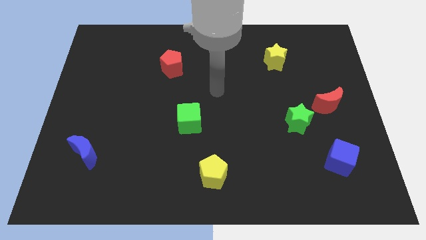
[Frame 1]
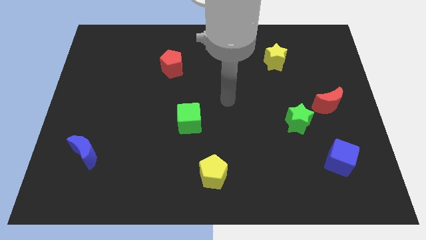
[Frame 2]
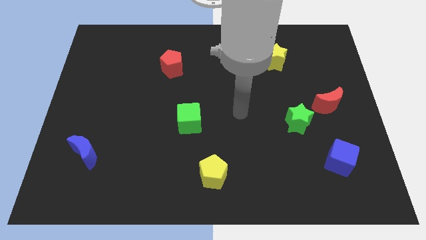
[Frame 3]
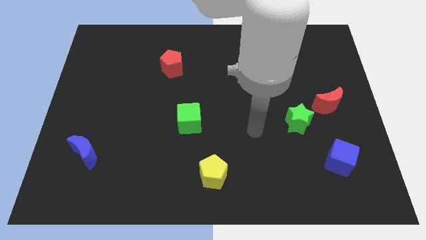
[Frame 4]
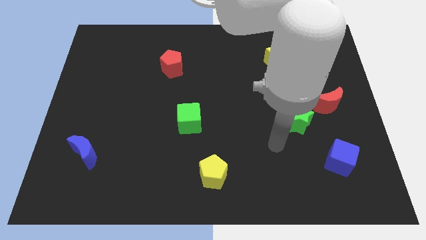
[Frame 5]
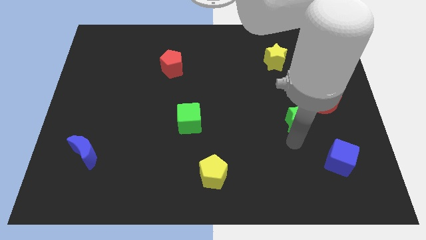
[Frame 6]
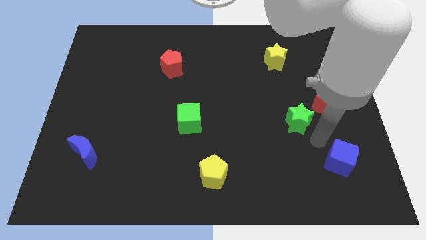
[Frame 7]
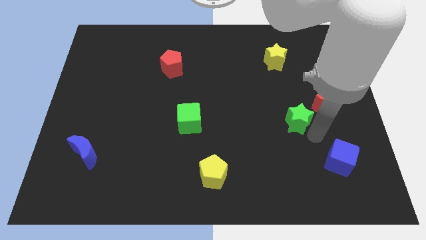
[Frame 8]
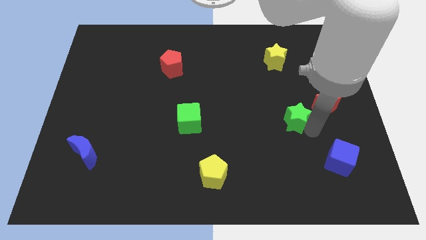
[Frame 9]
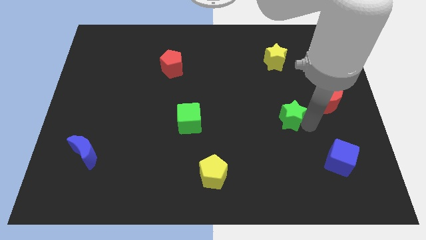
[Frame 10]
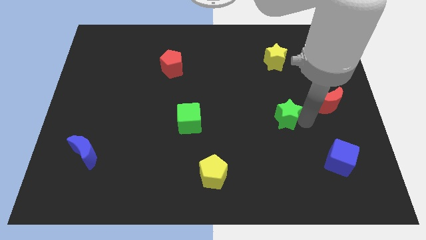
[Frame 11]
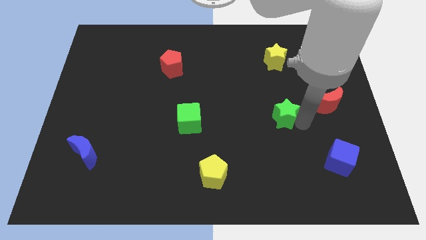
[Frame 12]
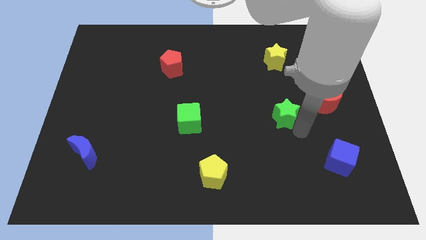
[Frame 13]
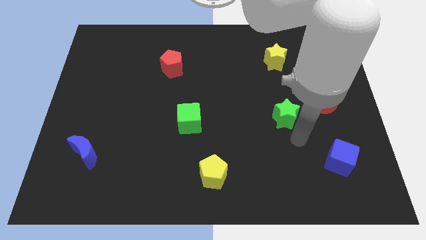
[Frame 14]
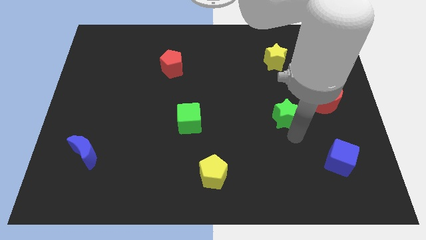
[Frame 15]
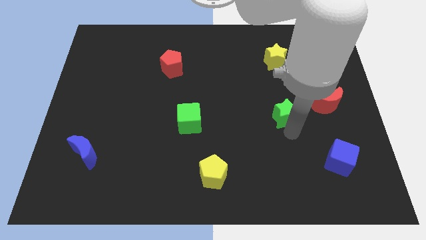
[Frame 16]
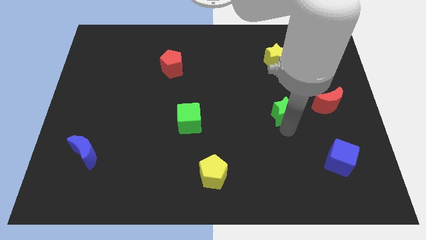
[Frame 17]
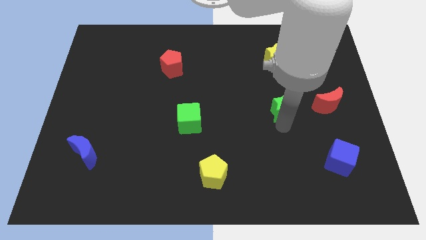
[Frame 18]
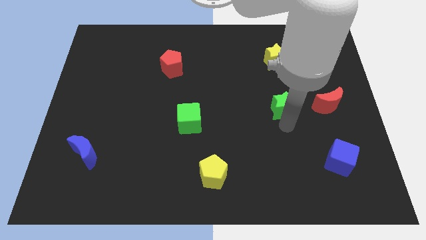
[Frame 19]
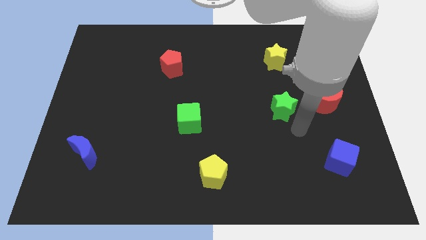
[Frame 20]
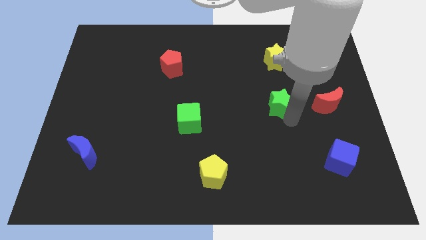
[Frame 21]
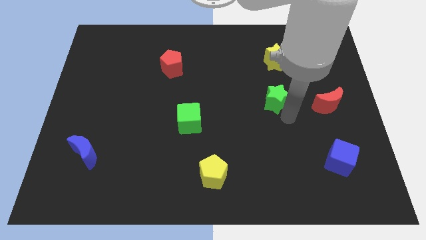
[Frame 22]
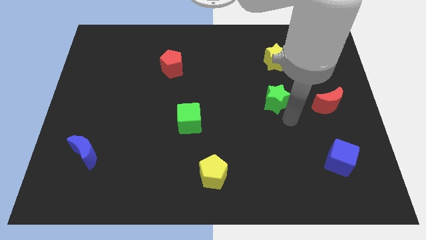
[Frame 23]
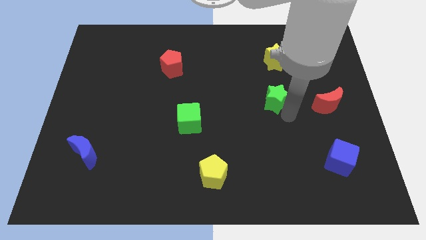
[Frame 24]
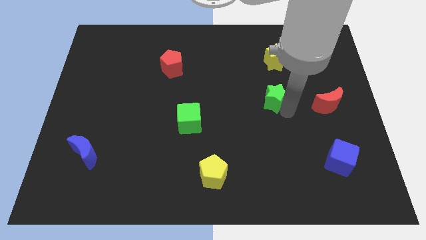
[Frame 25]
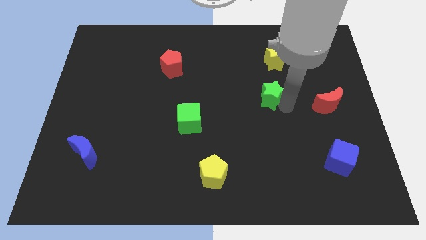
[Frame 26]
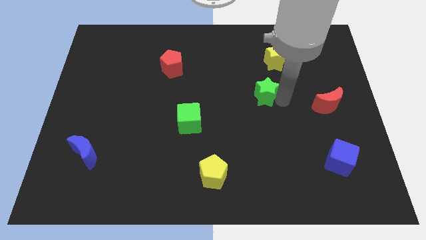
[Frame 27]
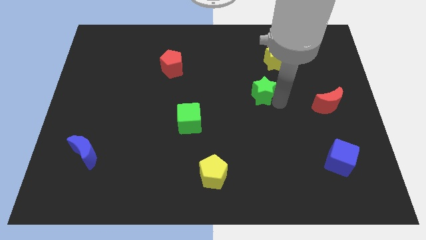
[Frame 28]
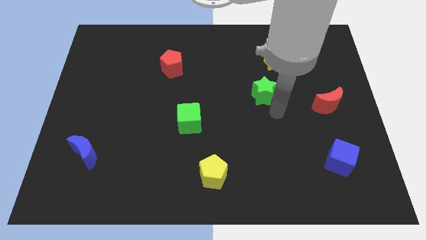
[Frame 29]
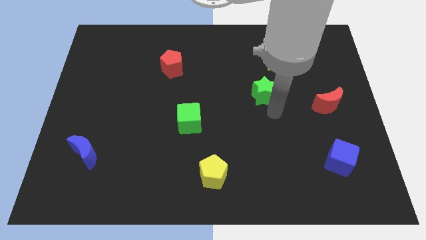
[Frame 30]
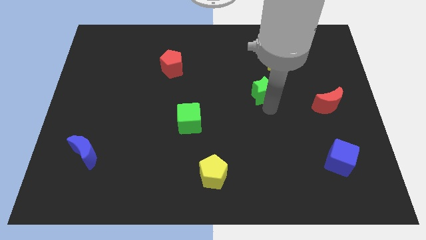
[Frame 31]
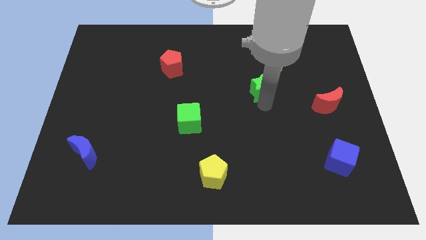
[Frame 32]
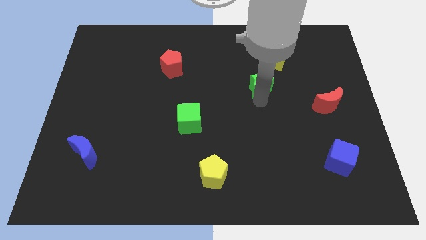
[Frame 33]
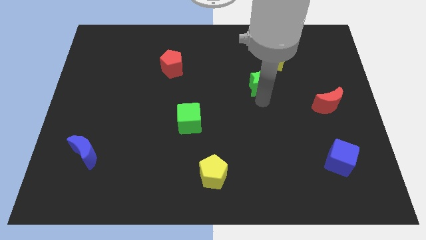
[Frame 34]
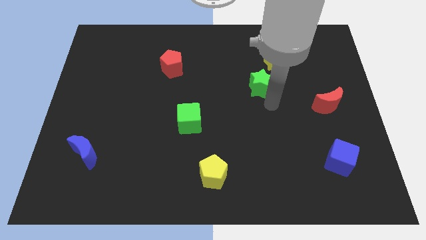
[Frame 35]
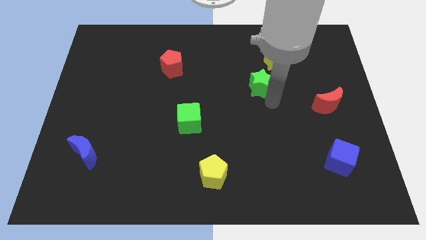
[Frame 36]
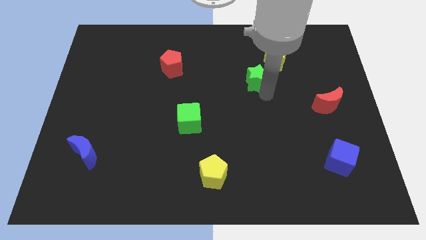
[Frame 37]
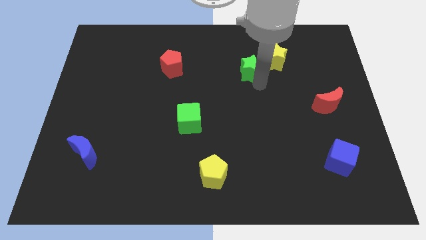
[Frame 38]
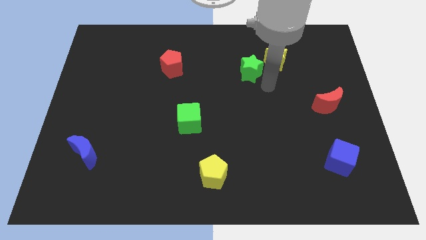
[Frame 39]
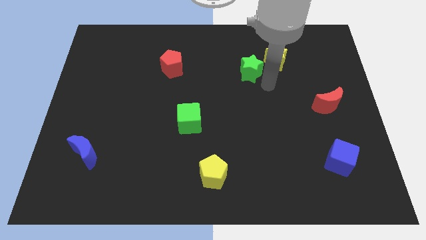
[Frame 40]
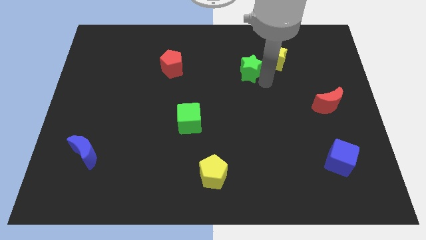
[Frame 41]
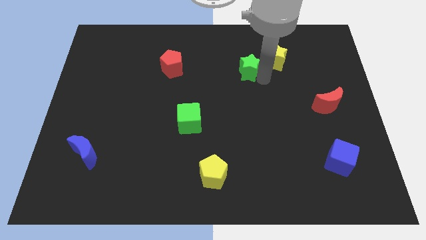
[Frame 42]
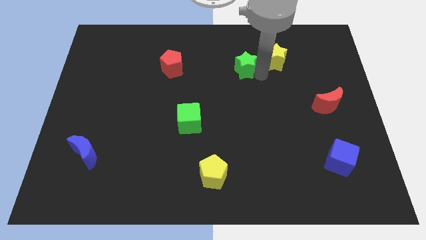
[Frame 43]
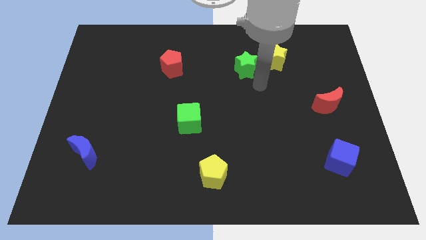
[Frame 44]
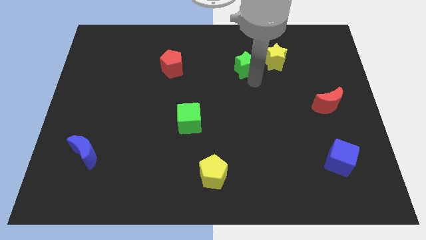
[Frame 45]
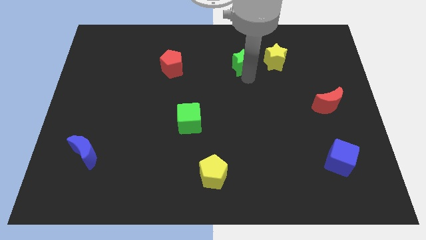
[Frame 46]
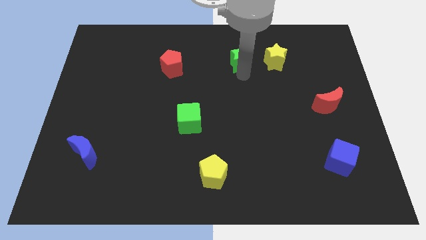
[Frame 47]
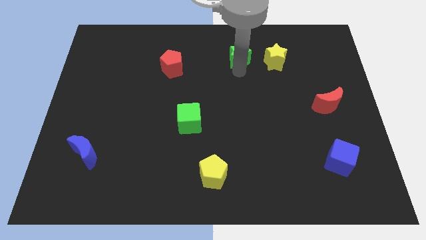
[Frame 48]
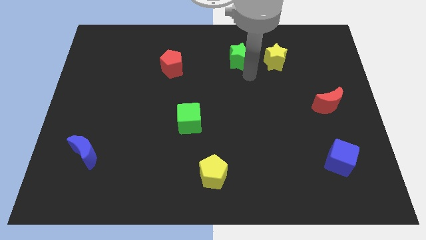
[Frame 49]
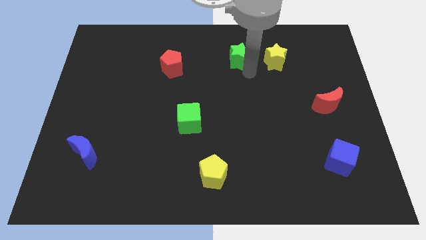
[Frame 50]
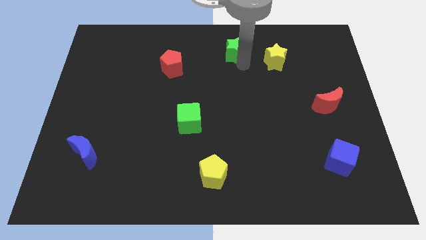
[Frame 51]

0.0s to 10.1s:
push the green star to the top side
